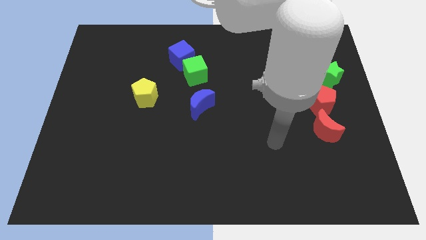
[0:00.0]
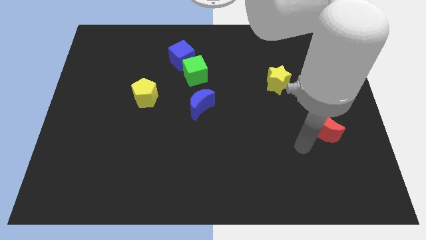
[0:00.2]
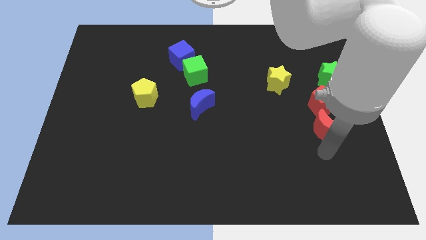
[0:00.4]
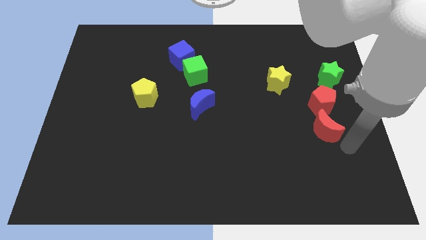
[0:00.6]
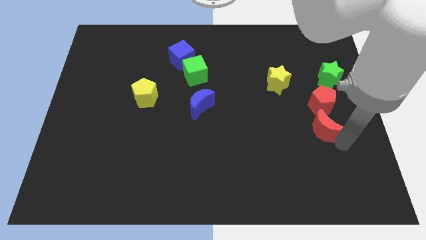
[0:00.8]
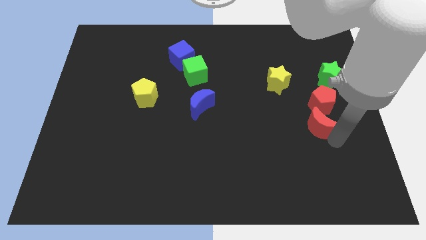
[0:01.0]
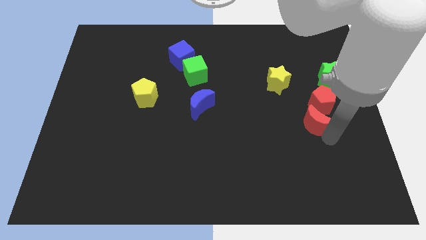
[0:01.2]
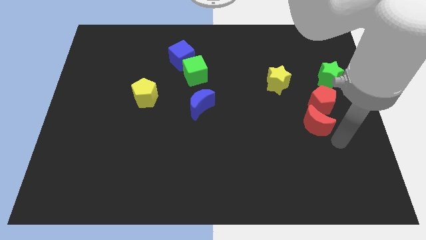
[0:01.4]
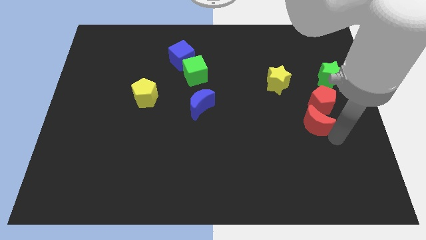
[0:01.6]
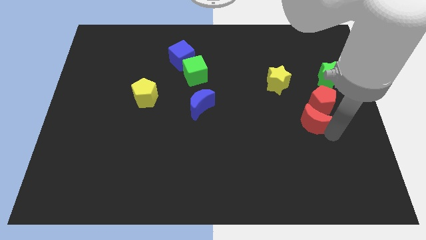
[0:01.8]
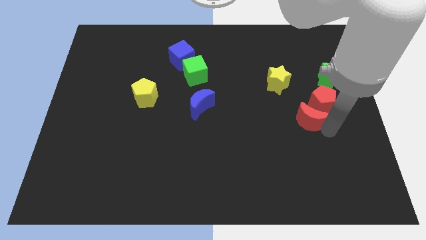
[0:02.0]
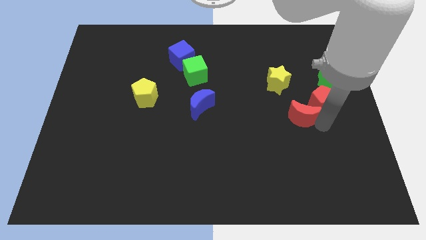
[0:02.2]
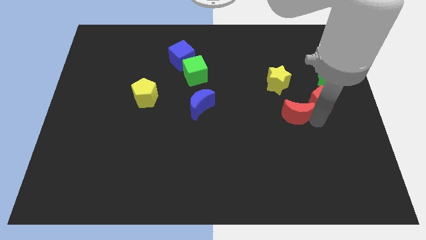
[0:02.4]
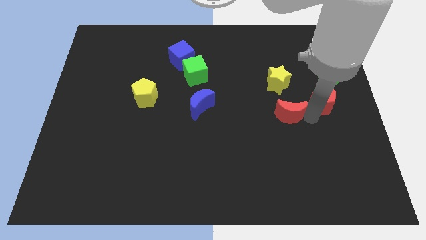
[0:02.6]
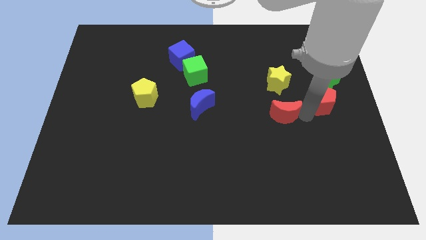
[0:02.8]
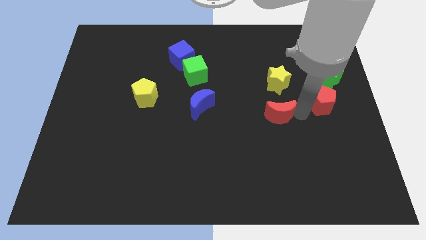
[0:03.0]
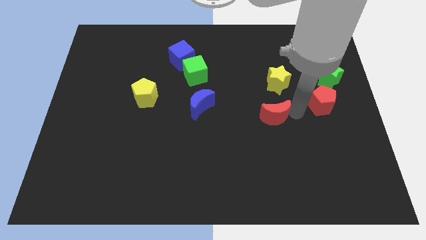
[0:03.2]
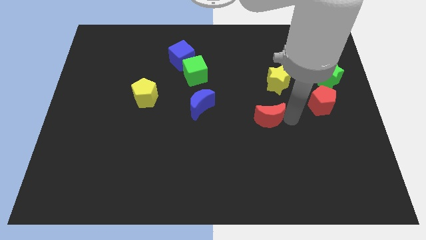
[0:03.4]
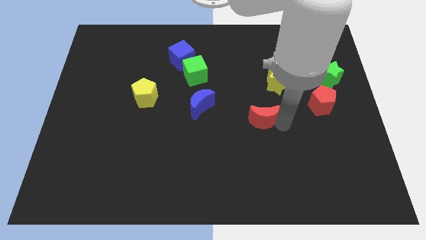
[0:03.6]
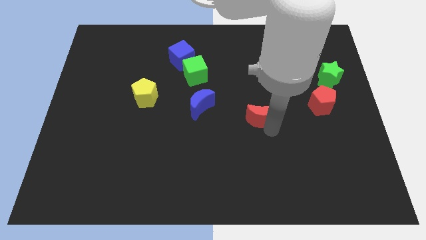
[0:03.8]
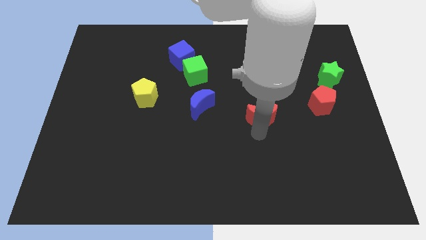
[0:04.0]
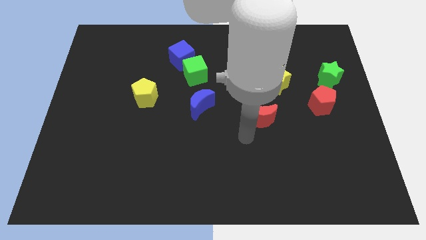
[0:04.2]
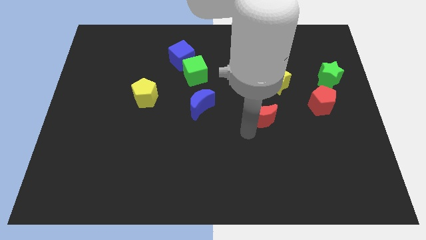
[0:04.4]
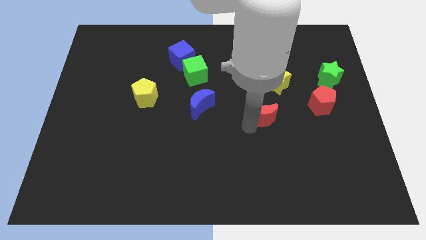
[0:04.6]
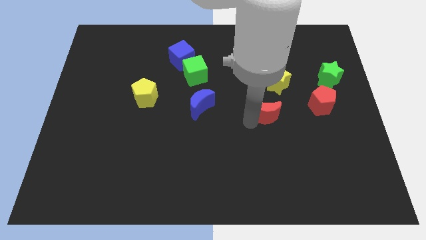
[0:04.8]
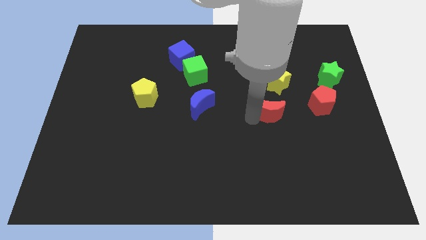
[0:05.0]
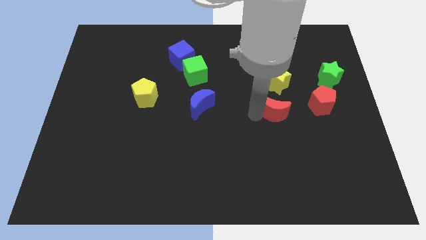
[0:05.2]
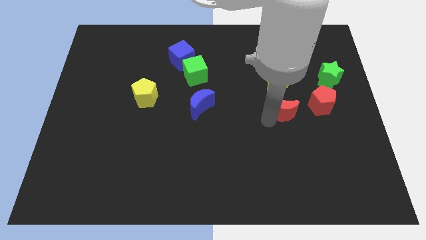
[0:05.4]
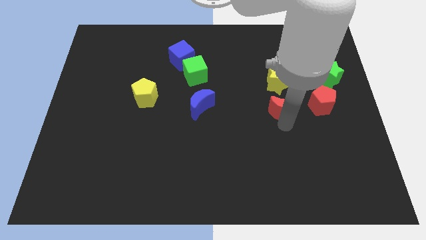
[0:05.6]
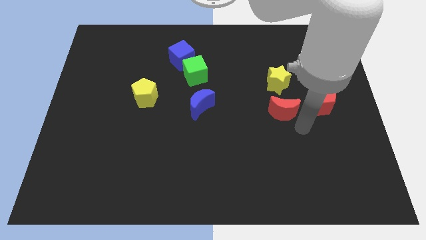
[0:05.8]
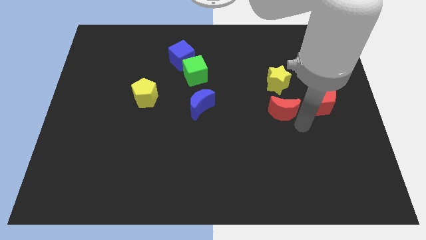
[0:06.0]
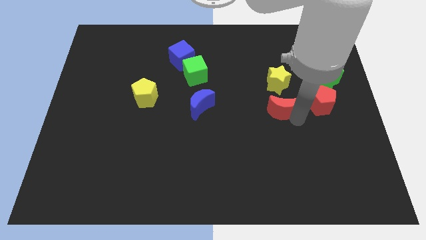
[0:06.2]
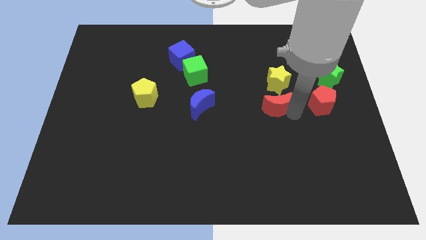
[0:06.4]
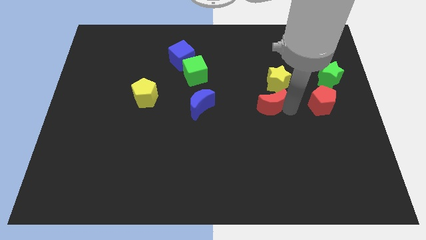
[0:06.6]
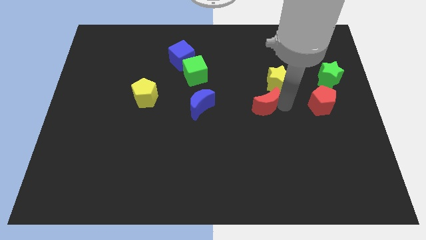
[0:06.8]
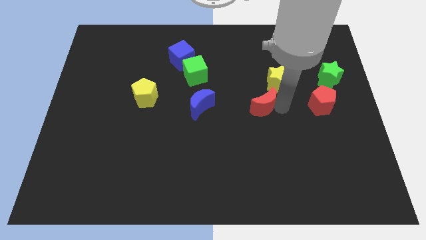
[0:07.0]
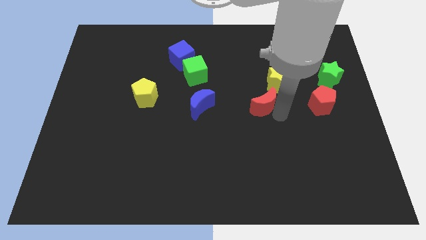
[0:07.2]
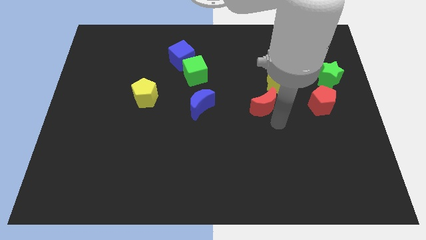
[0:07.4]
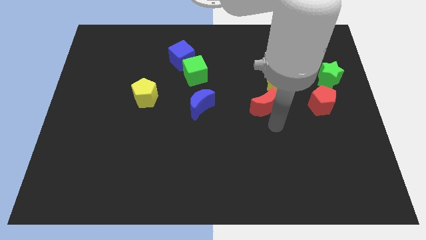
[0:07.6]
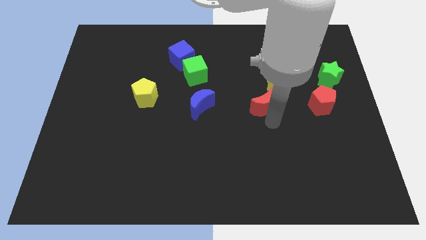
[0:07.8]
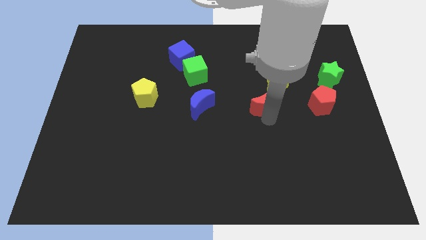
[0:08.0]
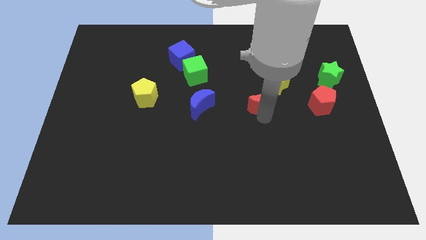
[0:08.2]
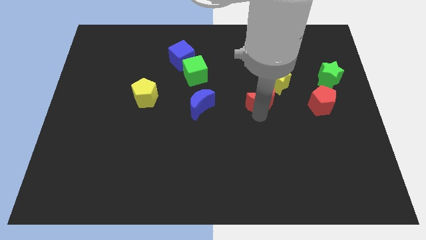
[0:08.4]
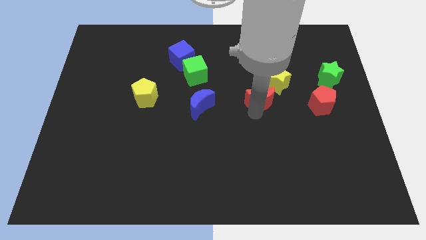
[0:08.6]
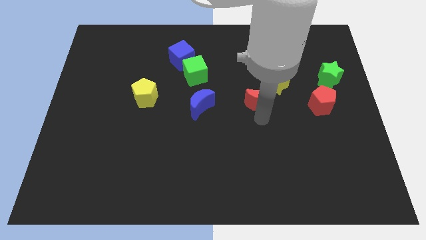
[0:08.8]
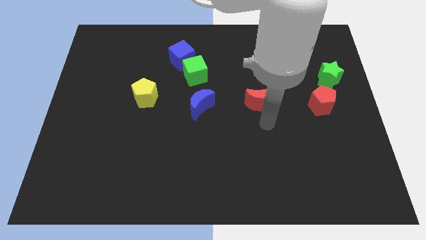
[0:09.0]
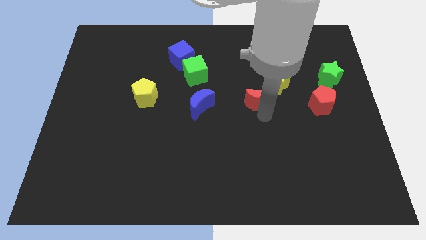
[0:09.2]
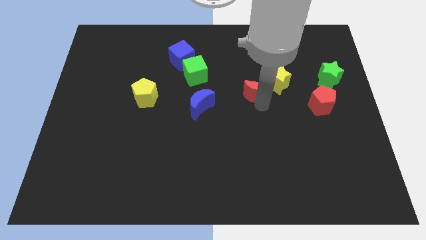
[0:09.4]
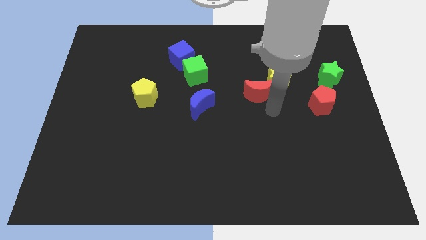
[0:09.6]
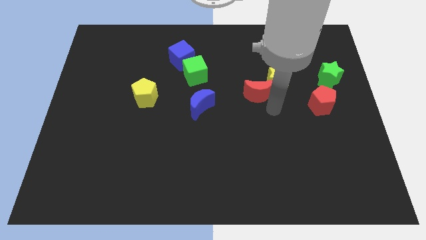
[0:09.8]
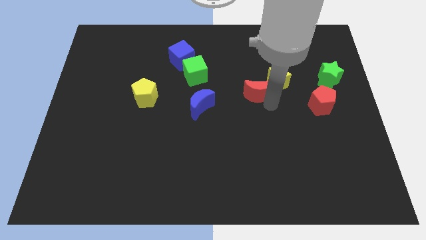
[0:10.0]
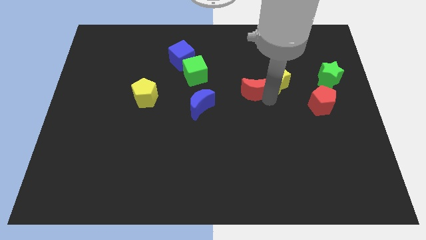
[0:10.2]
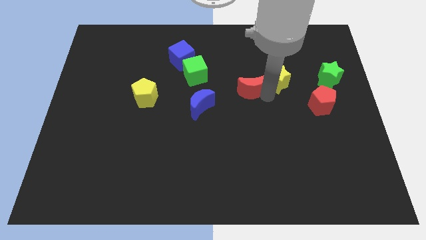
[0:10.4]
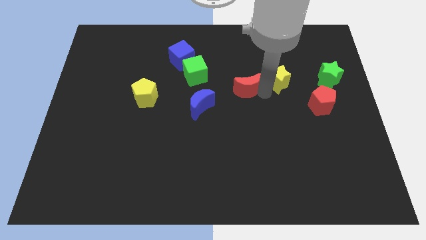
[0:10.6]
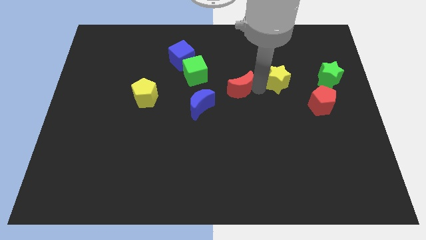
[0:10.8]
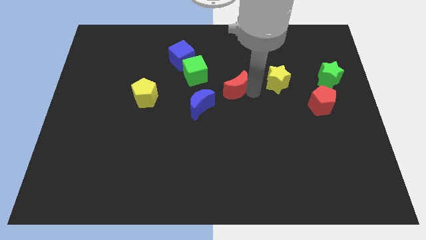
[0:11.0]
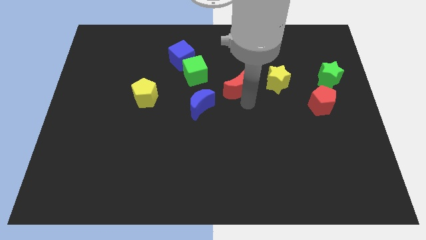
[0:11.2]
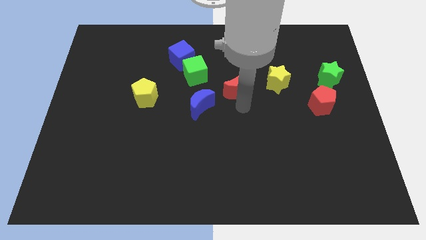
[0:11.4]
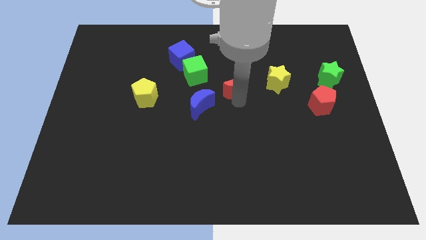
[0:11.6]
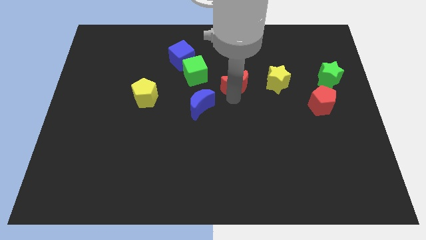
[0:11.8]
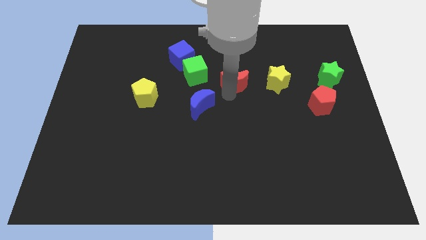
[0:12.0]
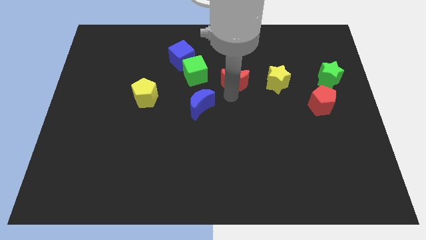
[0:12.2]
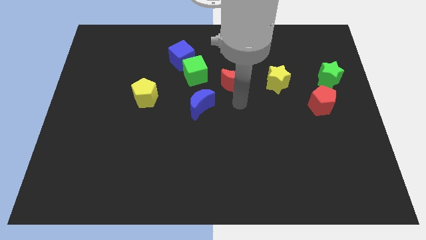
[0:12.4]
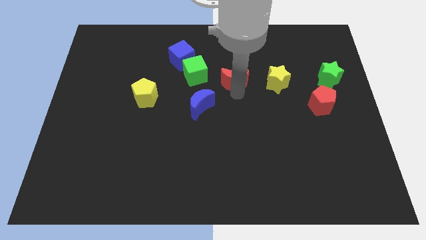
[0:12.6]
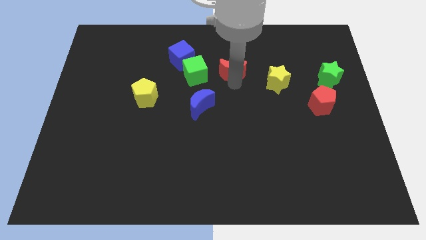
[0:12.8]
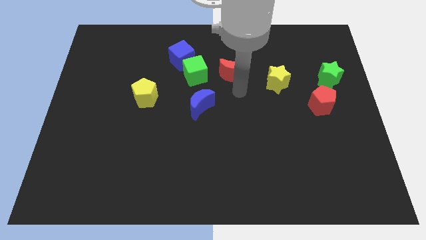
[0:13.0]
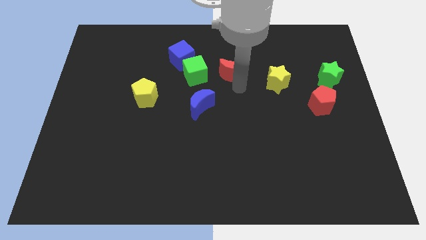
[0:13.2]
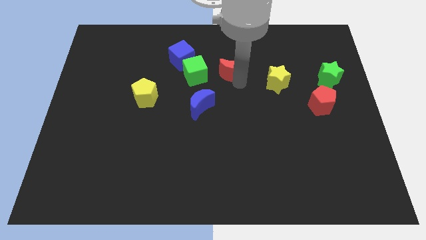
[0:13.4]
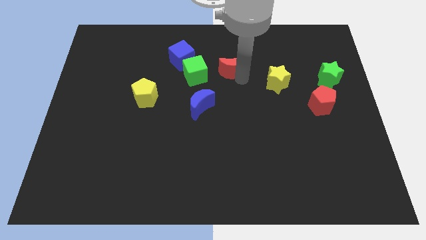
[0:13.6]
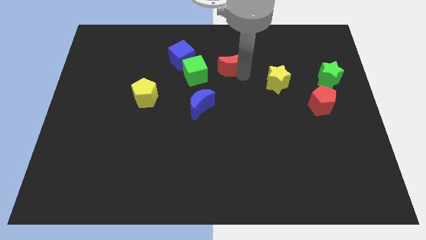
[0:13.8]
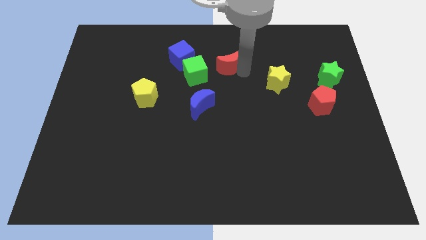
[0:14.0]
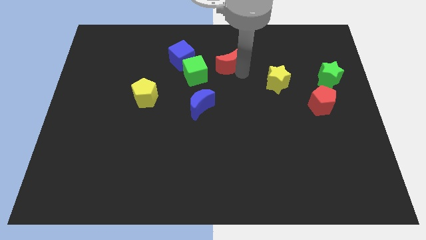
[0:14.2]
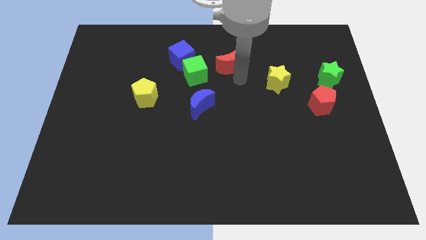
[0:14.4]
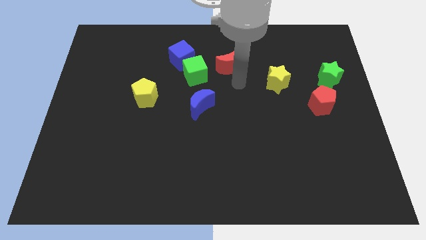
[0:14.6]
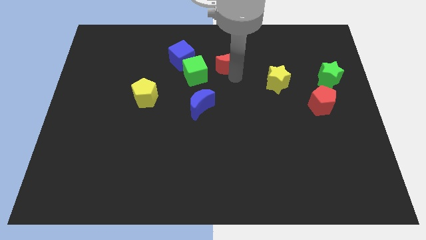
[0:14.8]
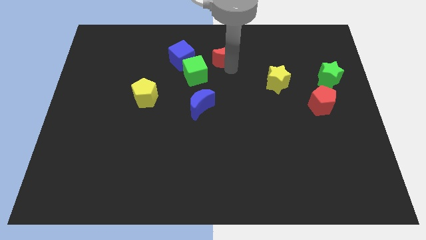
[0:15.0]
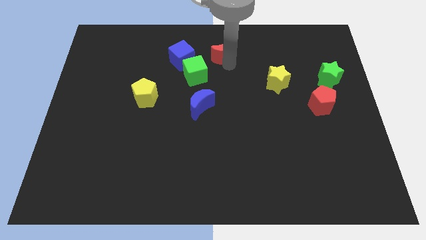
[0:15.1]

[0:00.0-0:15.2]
put the red moon to the top side
